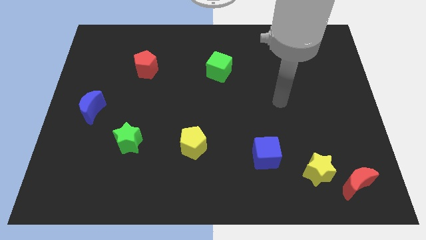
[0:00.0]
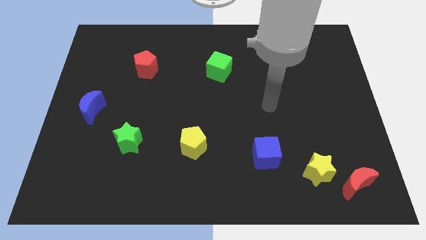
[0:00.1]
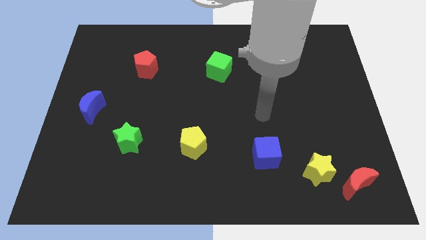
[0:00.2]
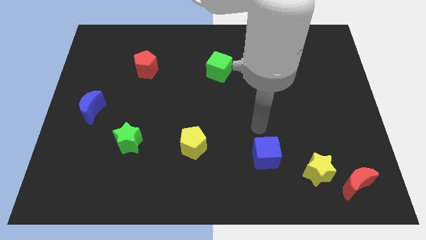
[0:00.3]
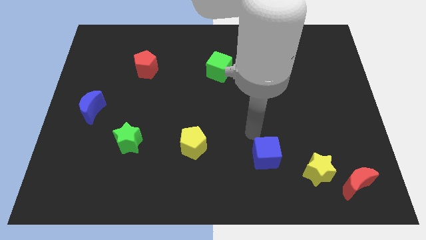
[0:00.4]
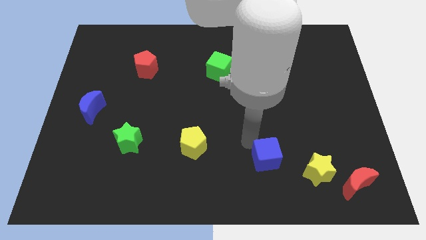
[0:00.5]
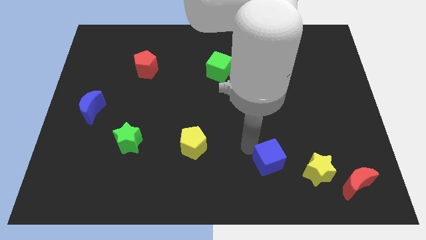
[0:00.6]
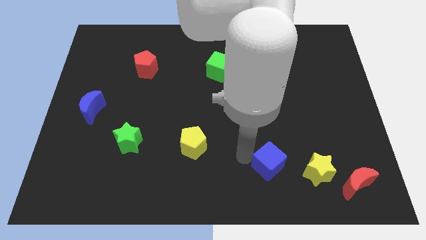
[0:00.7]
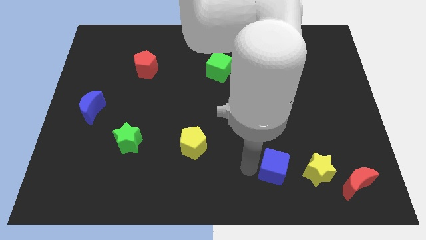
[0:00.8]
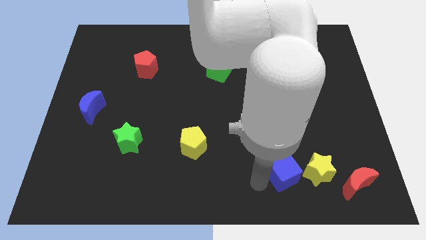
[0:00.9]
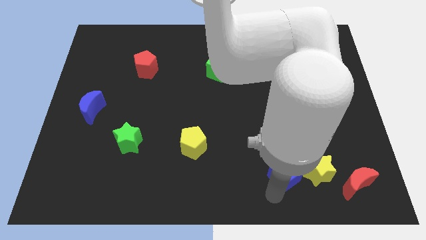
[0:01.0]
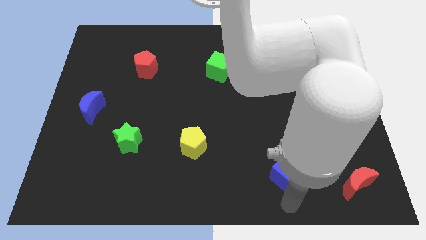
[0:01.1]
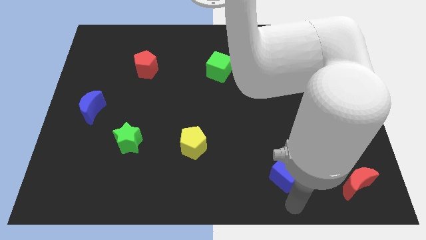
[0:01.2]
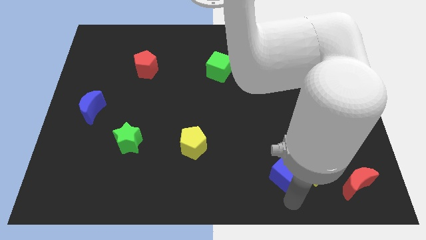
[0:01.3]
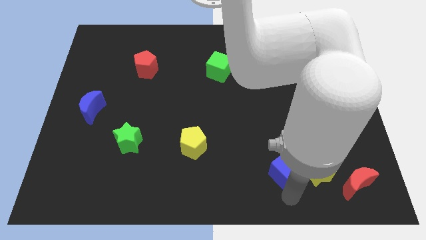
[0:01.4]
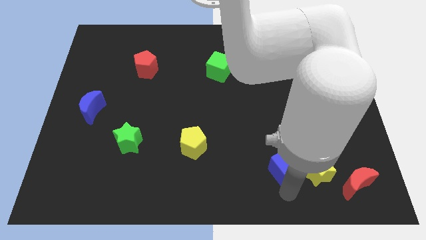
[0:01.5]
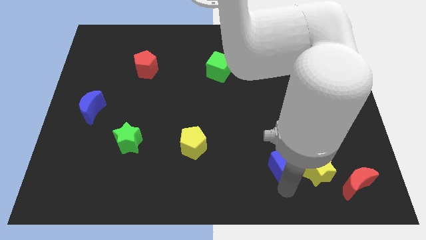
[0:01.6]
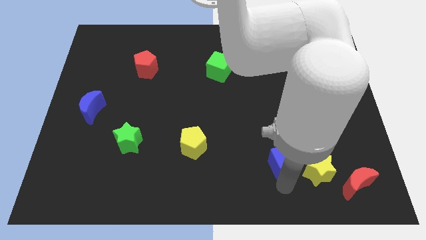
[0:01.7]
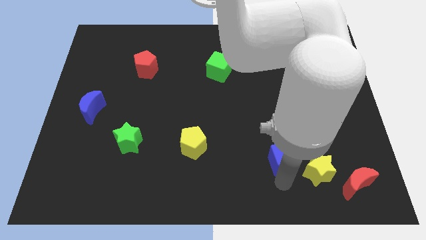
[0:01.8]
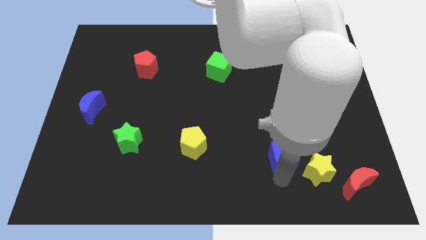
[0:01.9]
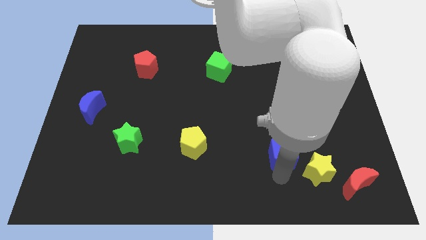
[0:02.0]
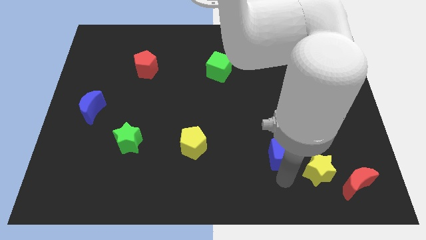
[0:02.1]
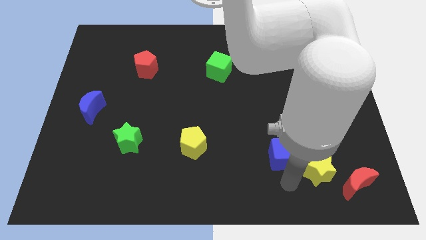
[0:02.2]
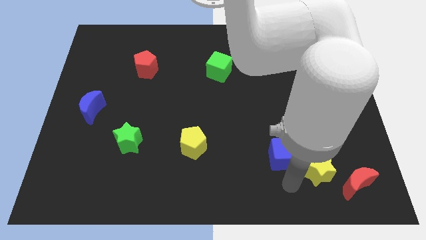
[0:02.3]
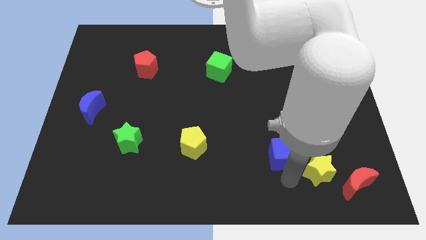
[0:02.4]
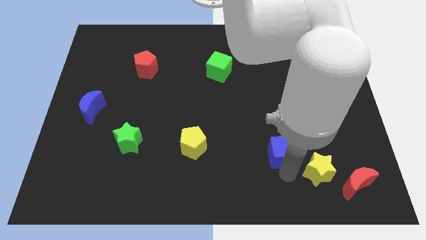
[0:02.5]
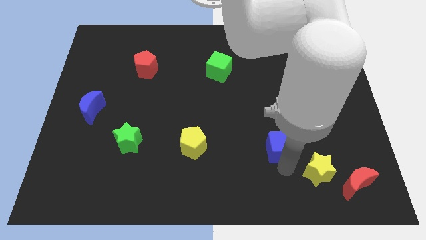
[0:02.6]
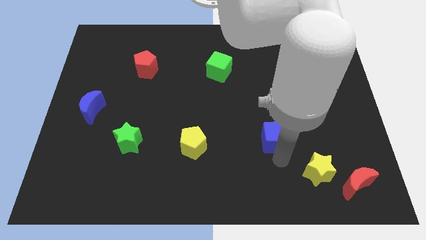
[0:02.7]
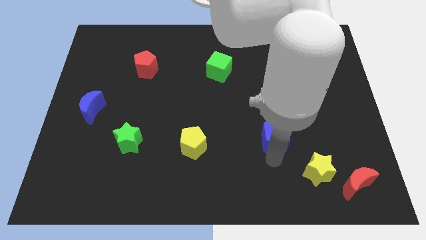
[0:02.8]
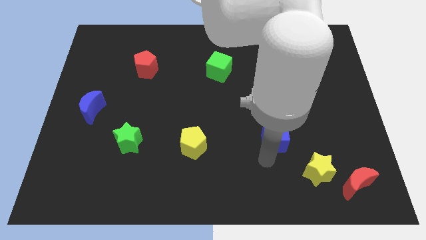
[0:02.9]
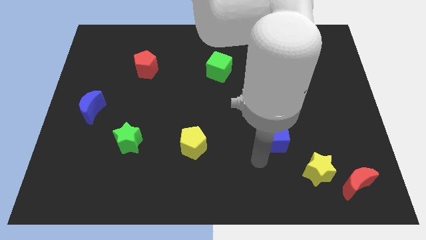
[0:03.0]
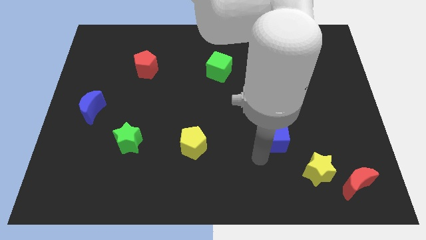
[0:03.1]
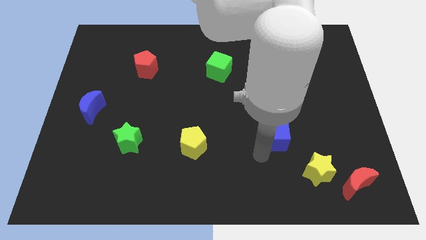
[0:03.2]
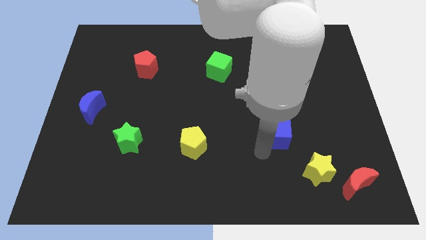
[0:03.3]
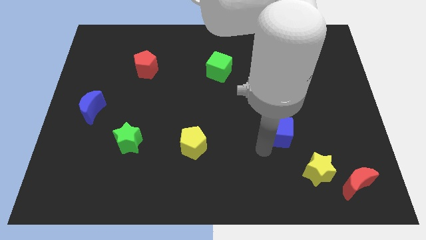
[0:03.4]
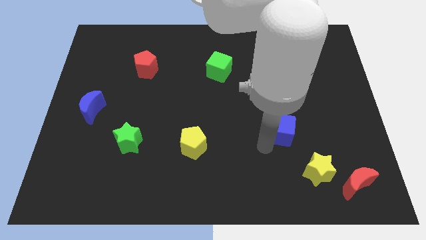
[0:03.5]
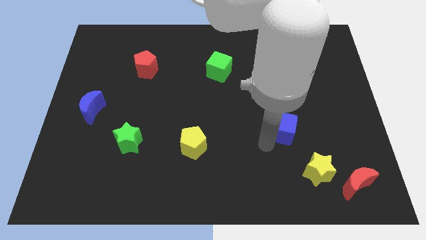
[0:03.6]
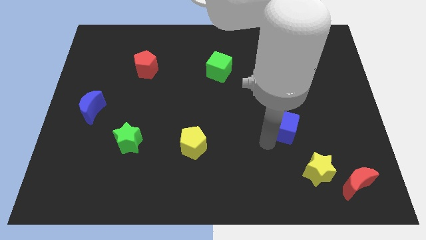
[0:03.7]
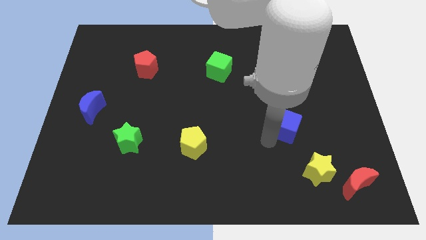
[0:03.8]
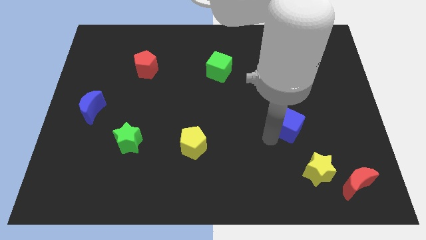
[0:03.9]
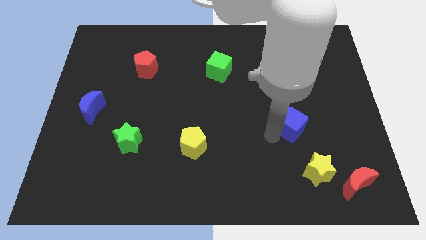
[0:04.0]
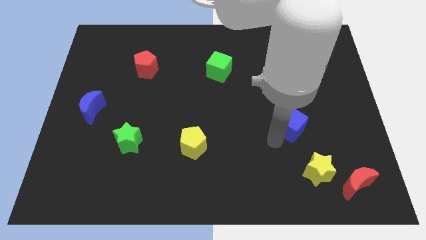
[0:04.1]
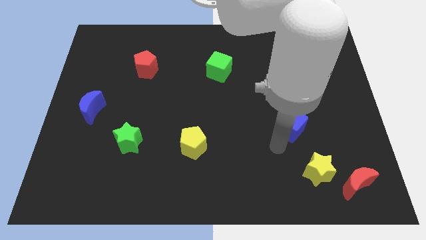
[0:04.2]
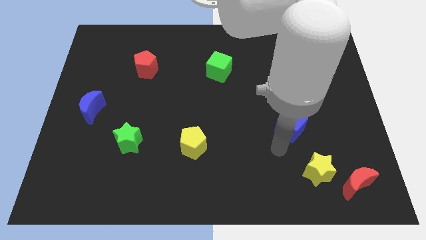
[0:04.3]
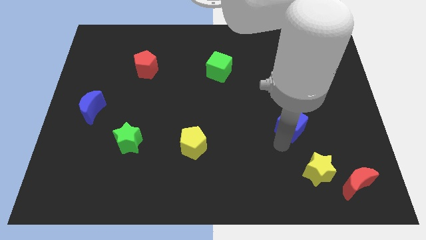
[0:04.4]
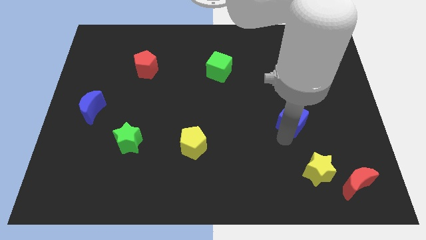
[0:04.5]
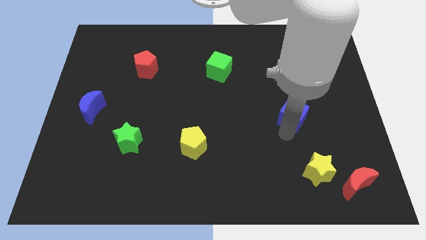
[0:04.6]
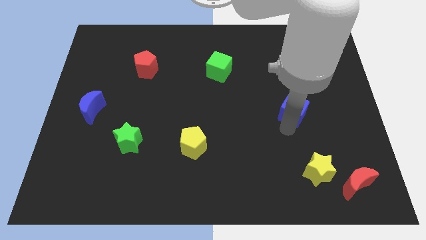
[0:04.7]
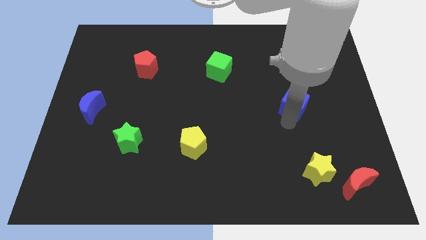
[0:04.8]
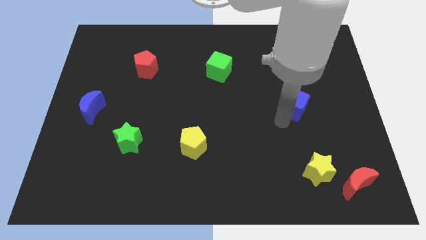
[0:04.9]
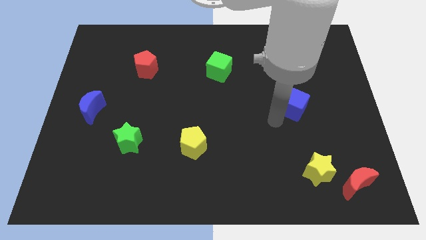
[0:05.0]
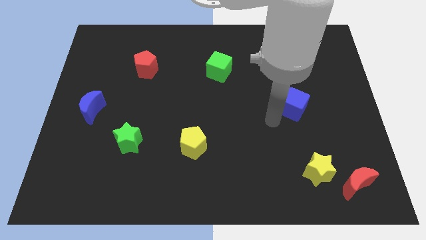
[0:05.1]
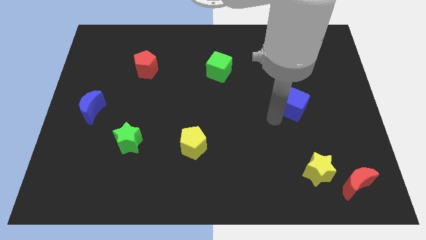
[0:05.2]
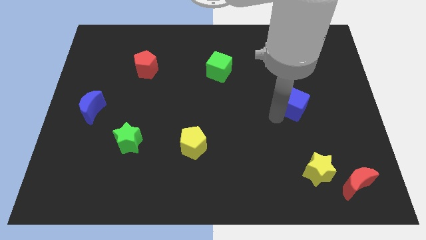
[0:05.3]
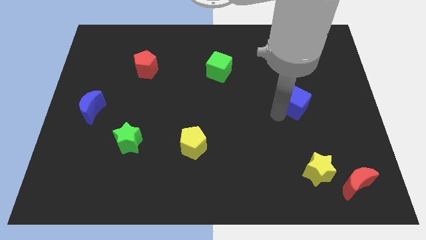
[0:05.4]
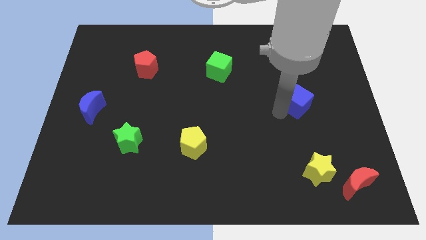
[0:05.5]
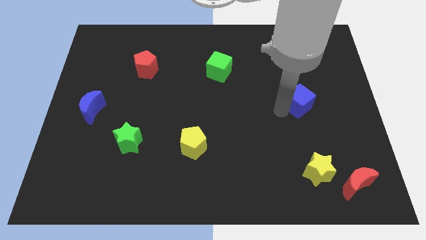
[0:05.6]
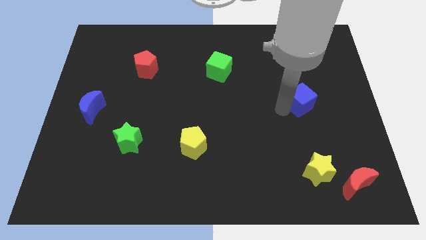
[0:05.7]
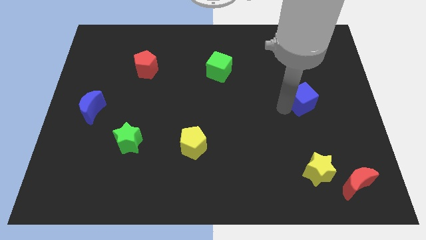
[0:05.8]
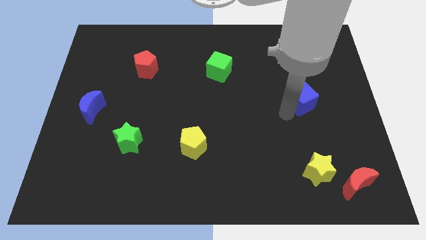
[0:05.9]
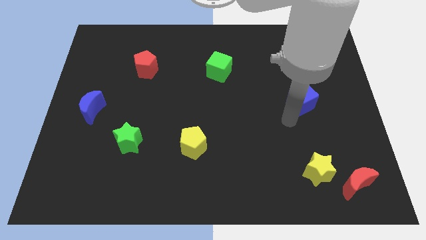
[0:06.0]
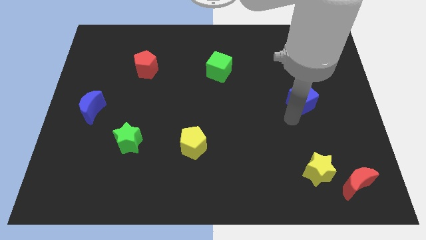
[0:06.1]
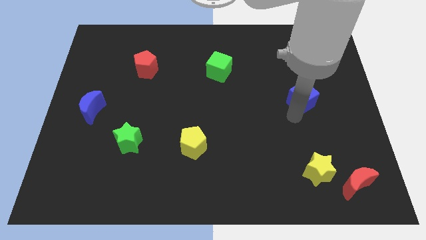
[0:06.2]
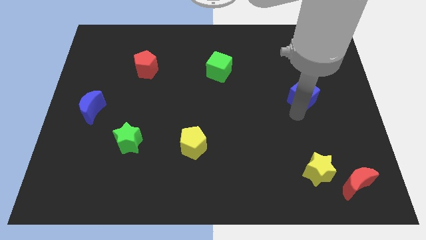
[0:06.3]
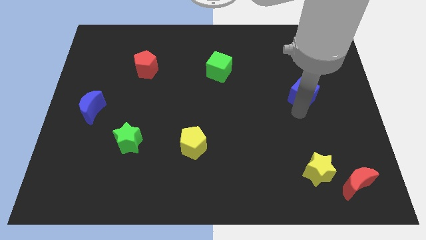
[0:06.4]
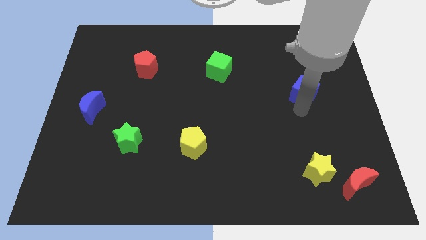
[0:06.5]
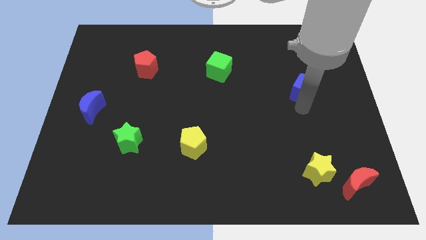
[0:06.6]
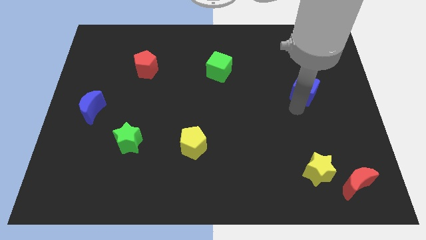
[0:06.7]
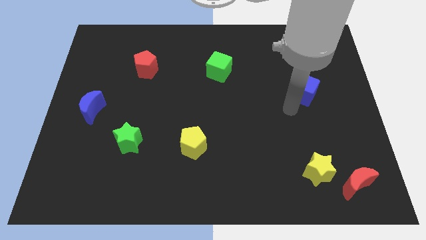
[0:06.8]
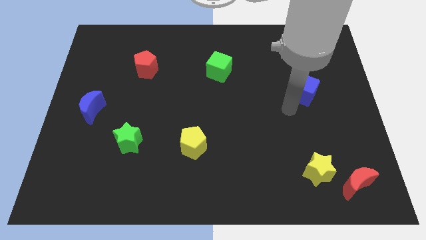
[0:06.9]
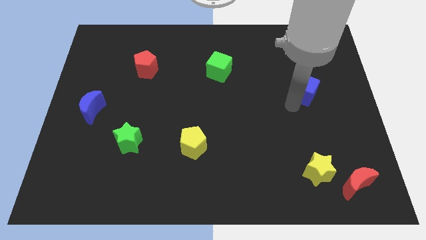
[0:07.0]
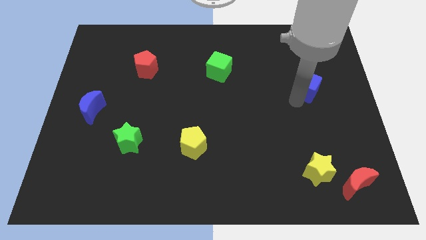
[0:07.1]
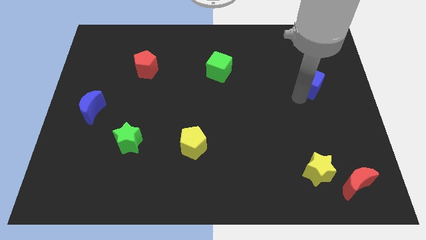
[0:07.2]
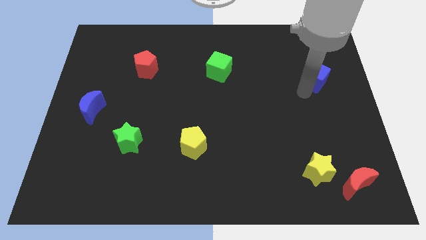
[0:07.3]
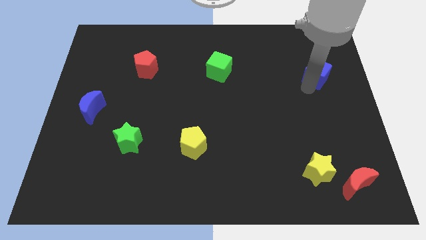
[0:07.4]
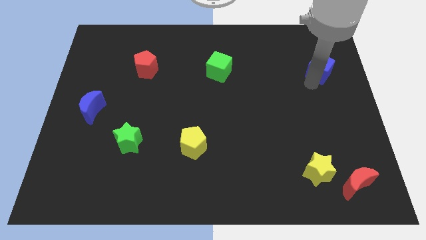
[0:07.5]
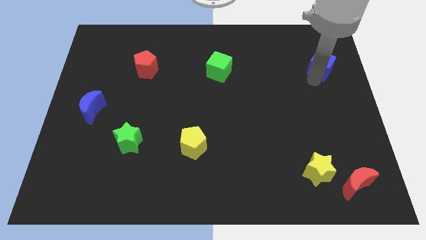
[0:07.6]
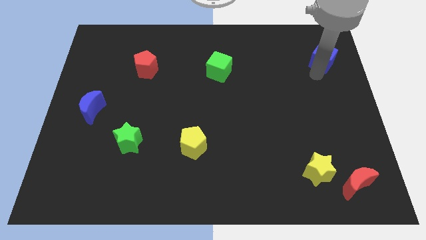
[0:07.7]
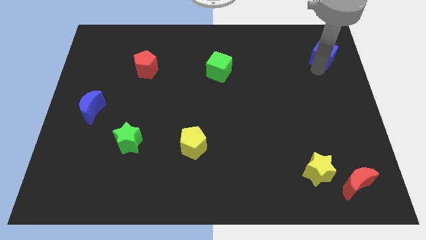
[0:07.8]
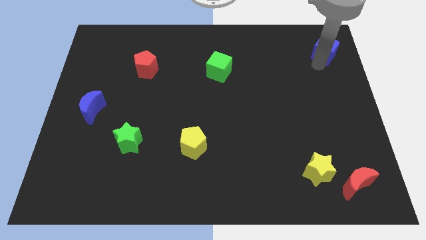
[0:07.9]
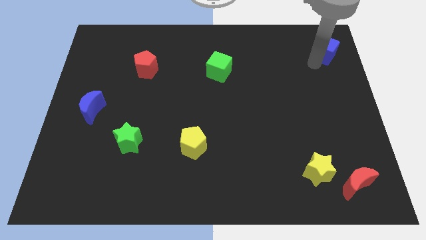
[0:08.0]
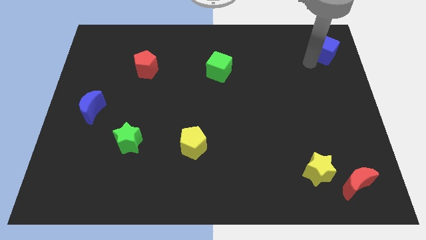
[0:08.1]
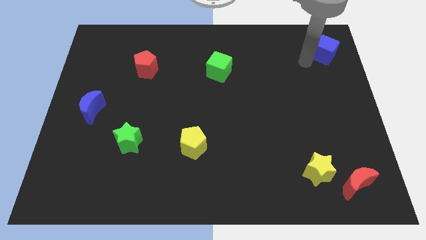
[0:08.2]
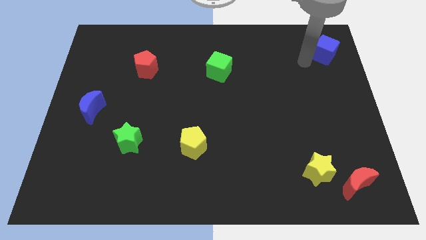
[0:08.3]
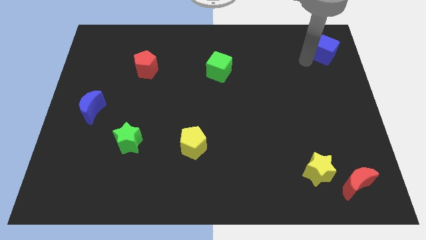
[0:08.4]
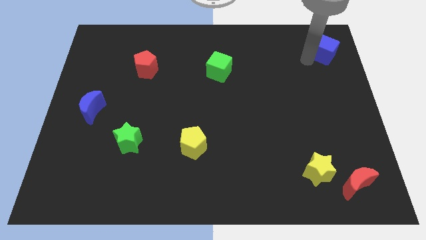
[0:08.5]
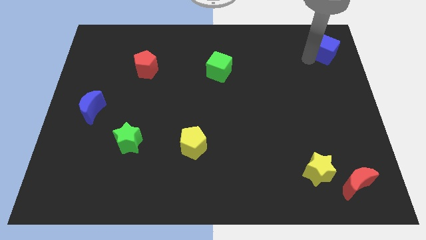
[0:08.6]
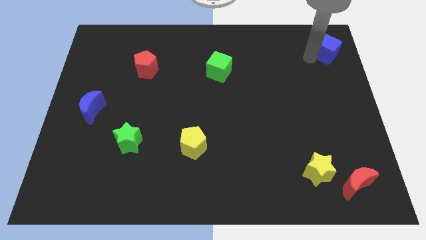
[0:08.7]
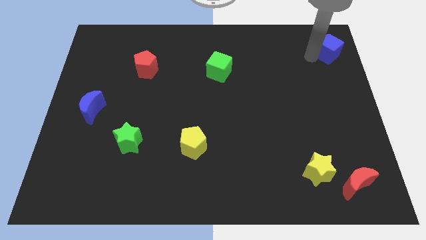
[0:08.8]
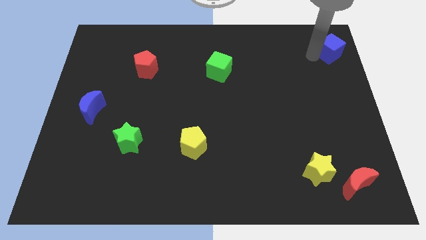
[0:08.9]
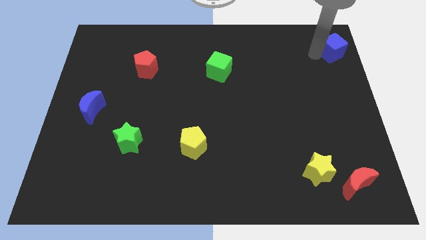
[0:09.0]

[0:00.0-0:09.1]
slide the blue cube to the top right corner
